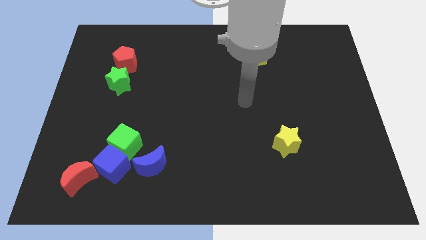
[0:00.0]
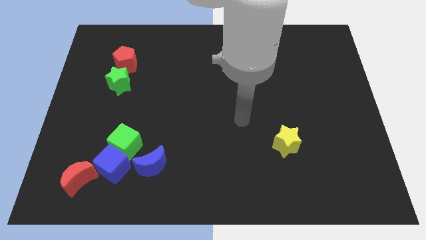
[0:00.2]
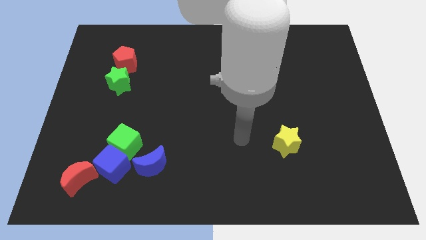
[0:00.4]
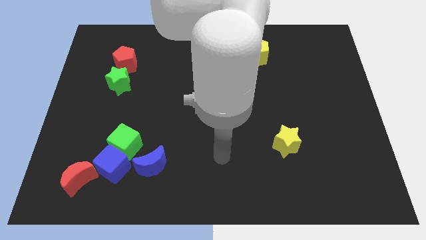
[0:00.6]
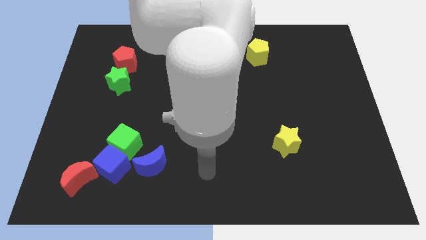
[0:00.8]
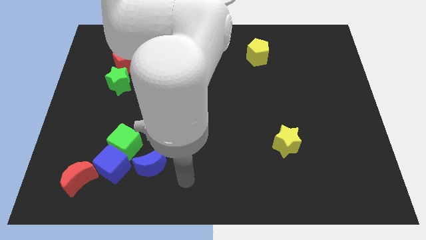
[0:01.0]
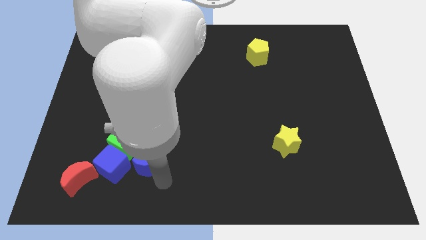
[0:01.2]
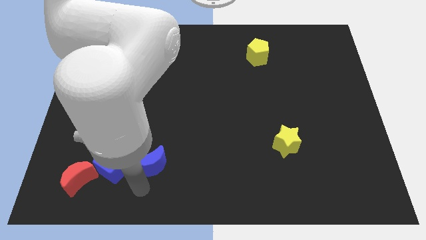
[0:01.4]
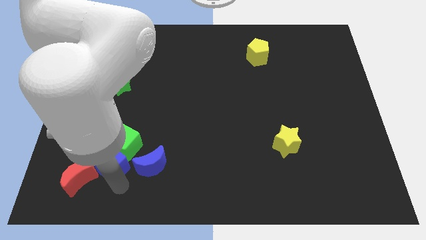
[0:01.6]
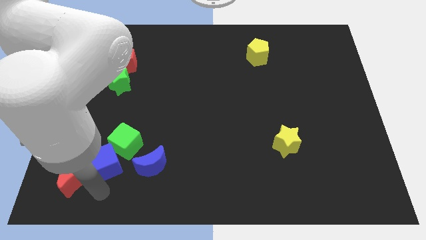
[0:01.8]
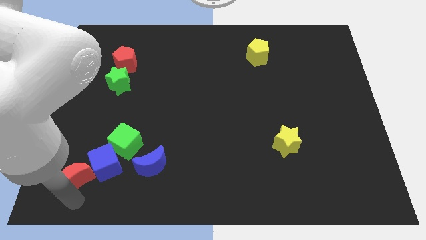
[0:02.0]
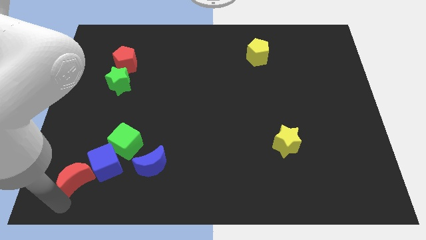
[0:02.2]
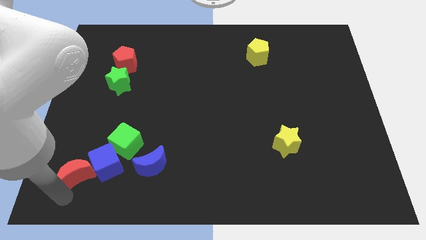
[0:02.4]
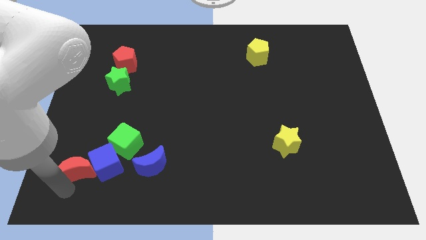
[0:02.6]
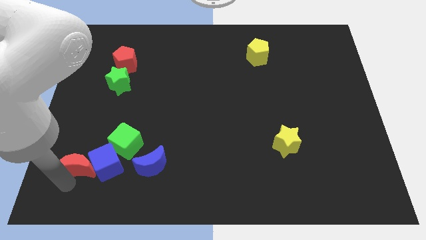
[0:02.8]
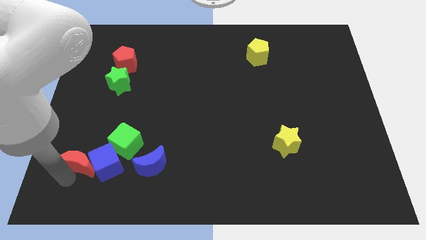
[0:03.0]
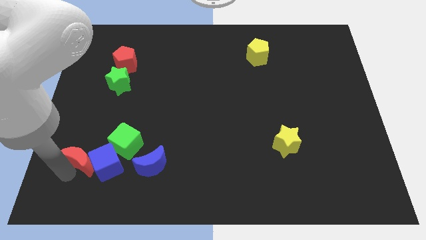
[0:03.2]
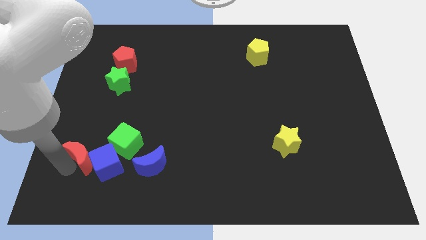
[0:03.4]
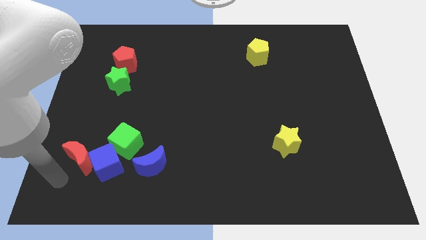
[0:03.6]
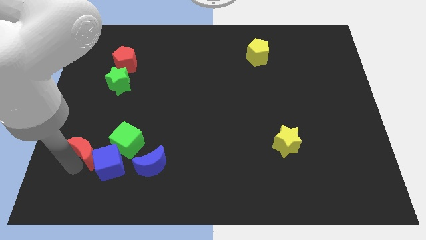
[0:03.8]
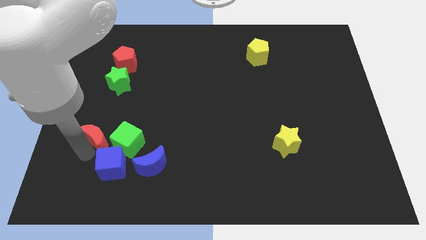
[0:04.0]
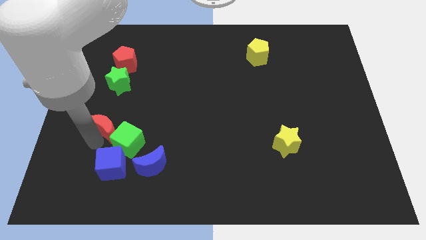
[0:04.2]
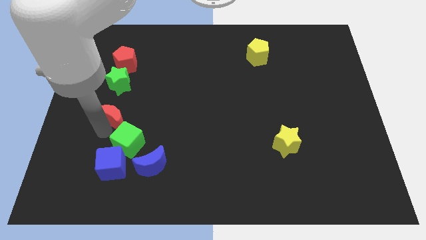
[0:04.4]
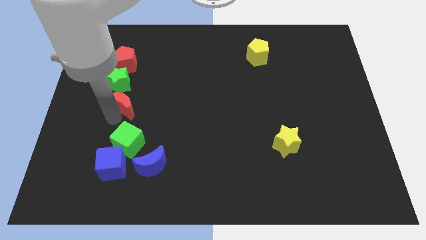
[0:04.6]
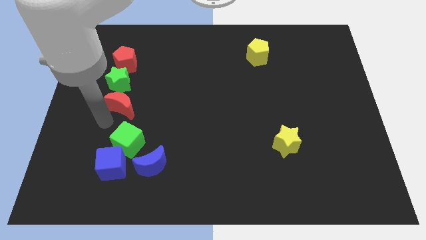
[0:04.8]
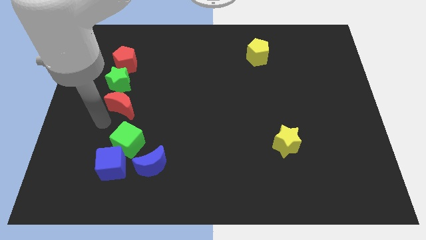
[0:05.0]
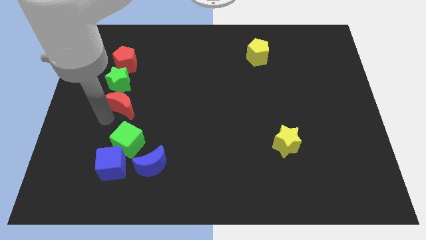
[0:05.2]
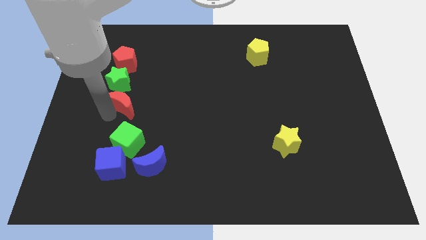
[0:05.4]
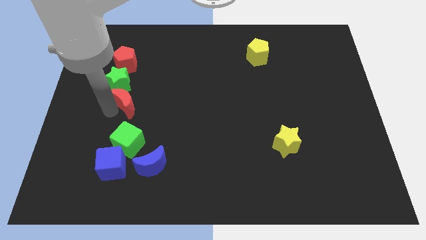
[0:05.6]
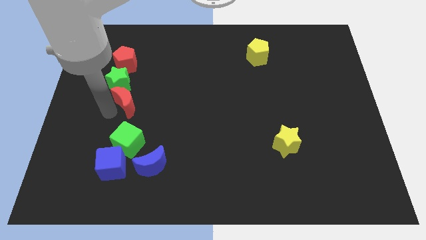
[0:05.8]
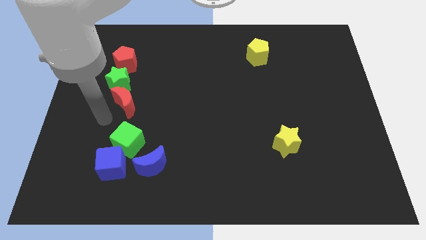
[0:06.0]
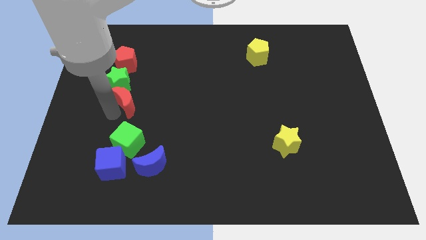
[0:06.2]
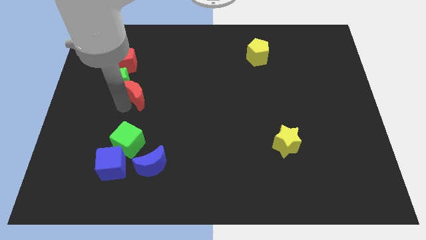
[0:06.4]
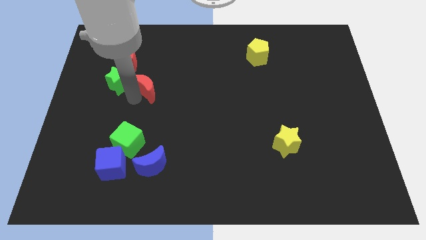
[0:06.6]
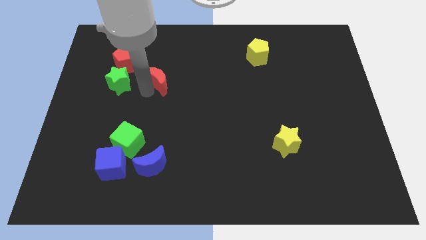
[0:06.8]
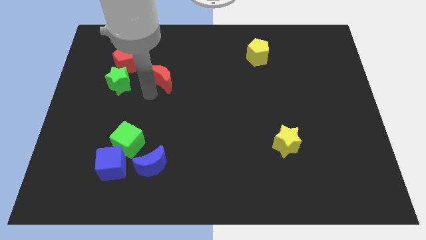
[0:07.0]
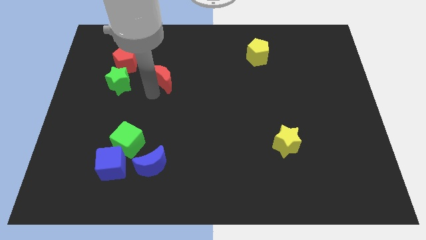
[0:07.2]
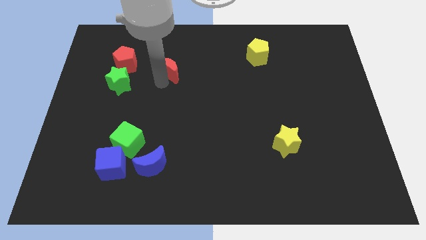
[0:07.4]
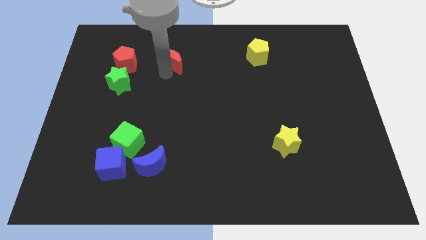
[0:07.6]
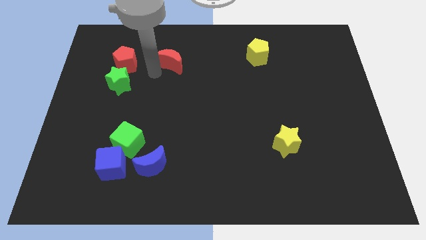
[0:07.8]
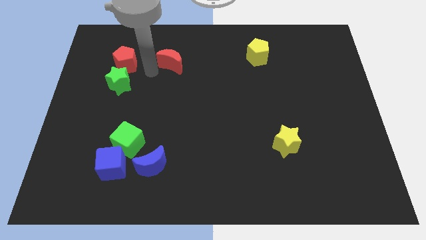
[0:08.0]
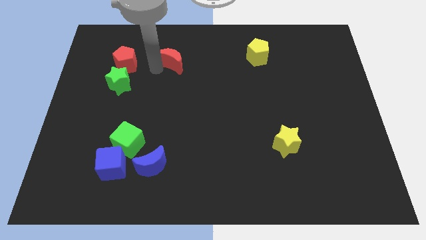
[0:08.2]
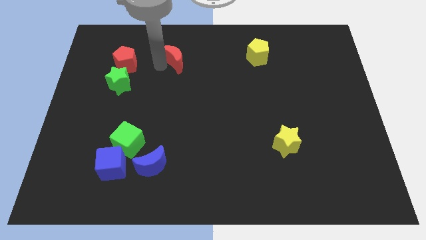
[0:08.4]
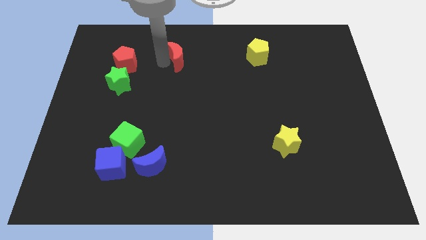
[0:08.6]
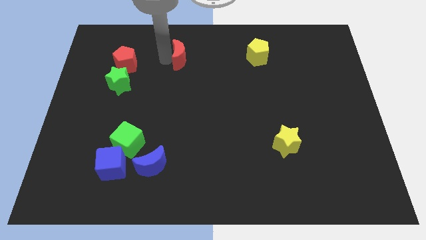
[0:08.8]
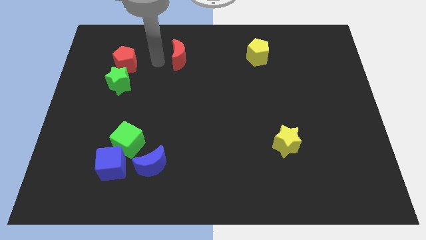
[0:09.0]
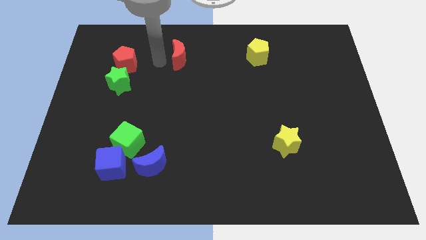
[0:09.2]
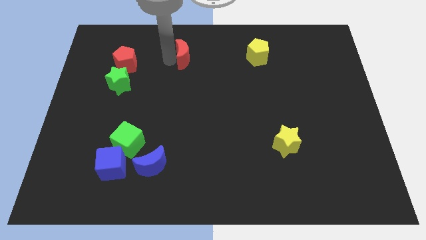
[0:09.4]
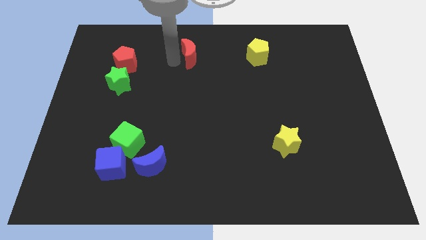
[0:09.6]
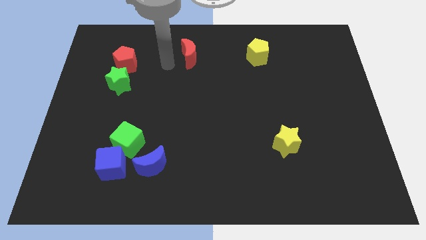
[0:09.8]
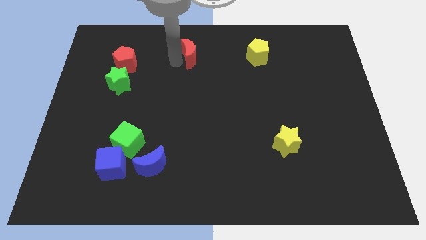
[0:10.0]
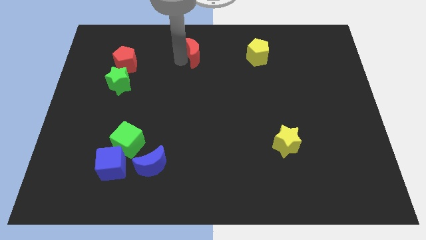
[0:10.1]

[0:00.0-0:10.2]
put the red moon to the top side
